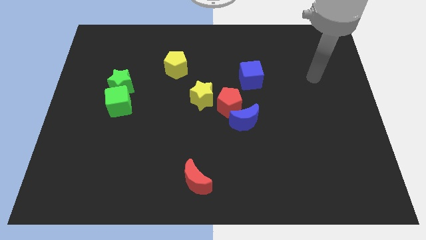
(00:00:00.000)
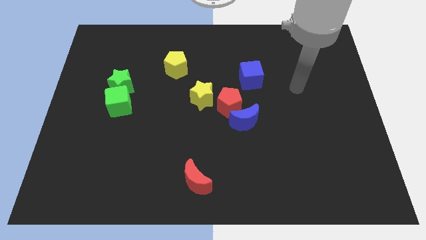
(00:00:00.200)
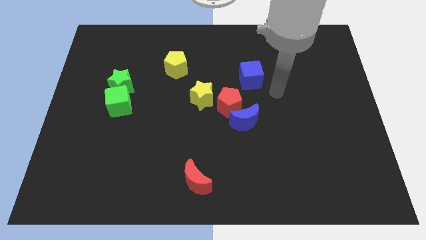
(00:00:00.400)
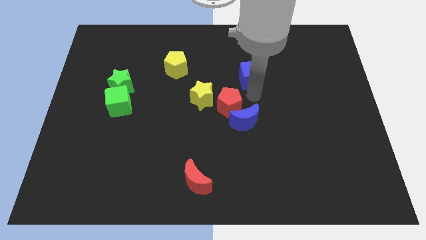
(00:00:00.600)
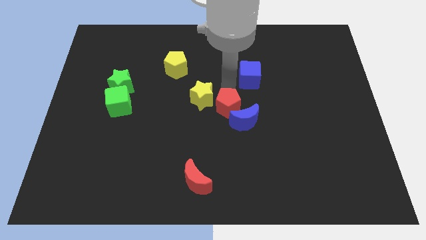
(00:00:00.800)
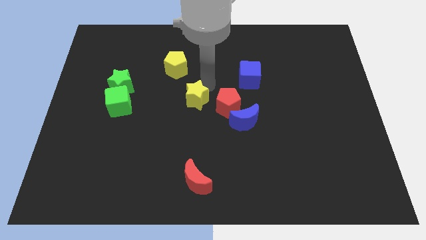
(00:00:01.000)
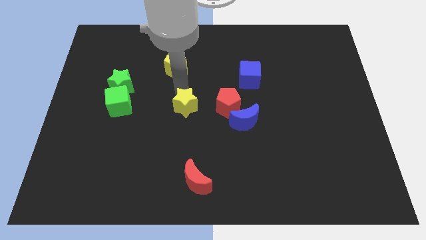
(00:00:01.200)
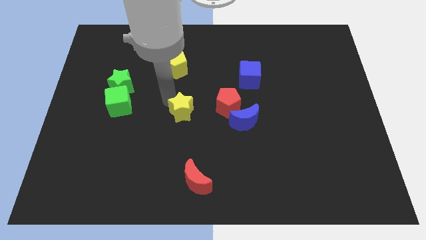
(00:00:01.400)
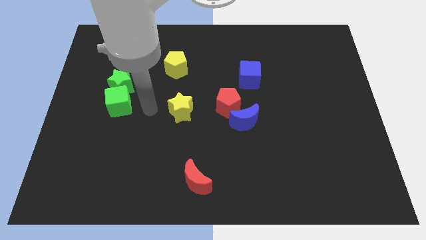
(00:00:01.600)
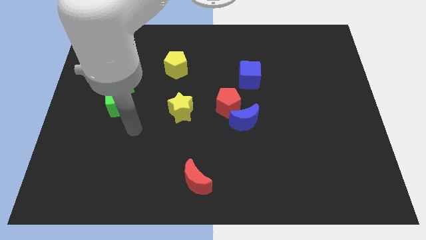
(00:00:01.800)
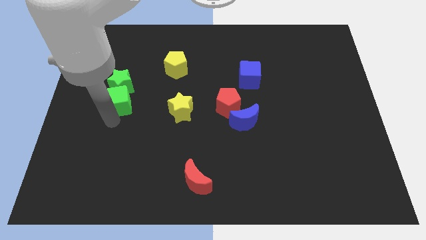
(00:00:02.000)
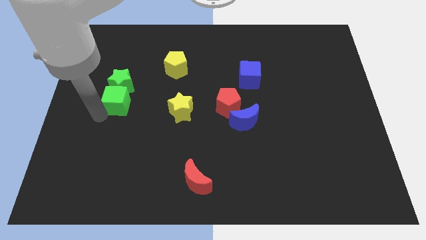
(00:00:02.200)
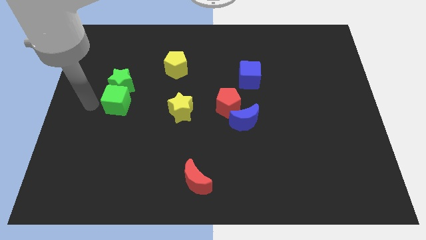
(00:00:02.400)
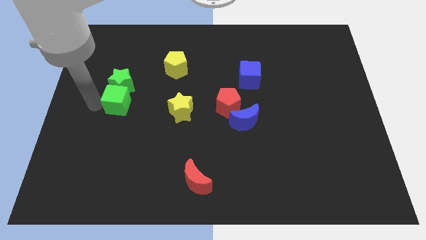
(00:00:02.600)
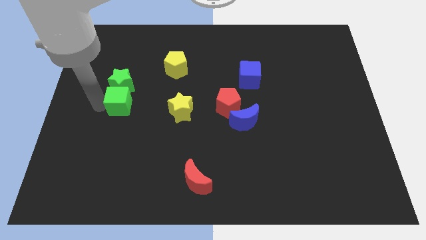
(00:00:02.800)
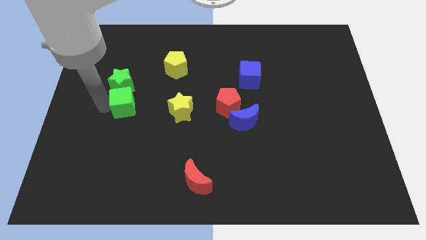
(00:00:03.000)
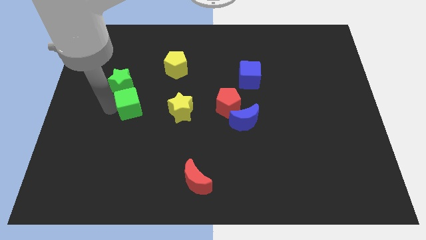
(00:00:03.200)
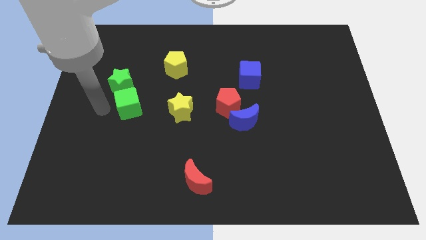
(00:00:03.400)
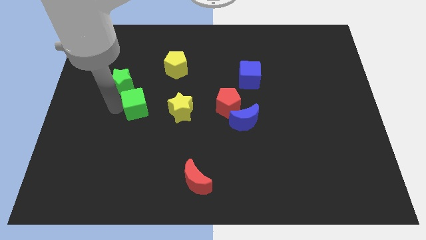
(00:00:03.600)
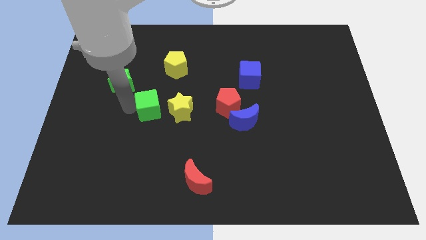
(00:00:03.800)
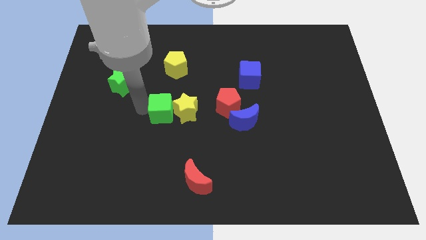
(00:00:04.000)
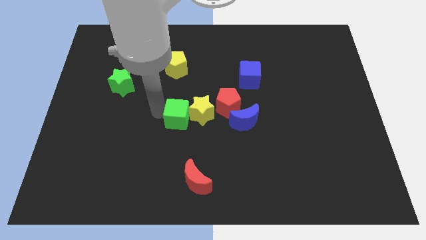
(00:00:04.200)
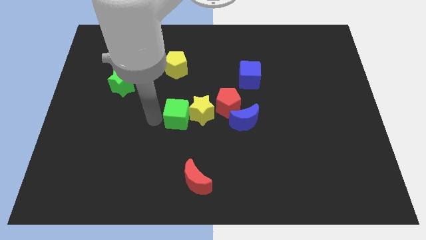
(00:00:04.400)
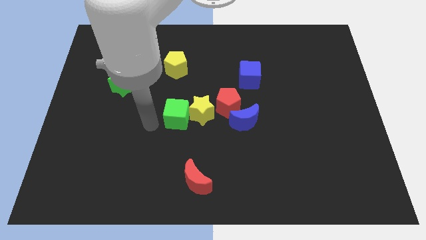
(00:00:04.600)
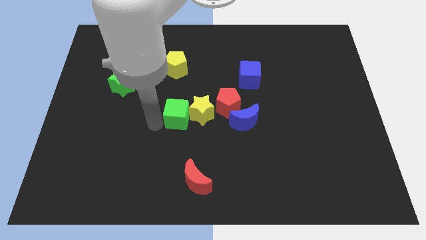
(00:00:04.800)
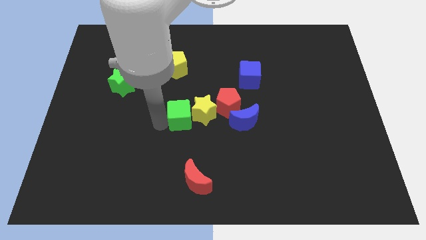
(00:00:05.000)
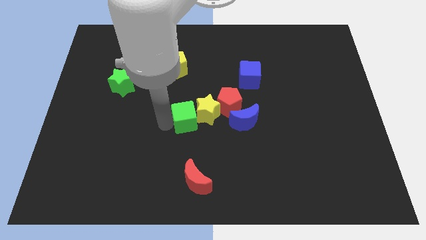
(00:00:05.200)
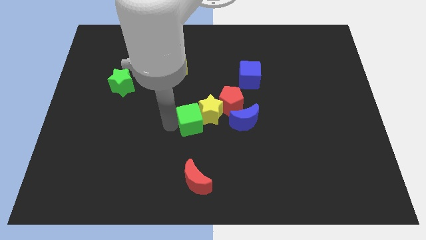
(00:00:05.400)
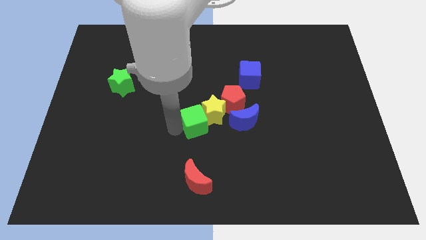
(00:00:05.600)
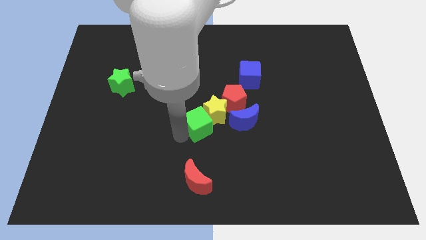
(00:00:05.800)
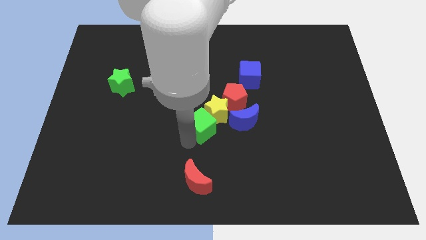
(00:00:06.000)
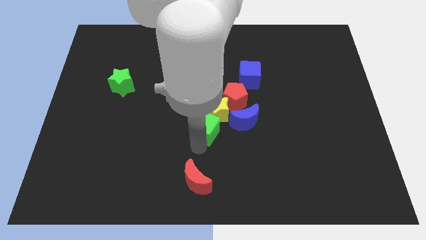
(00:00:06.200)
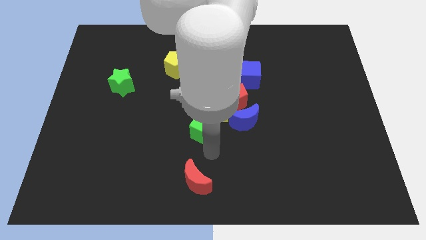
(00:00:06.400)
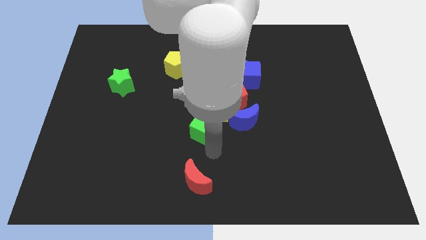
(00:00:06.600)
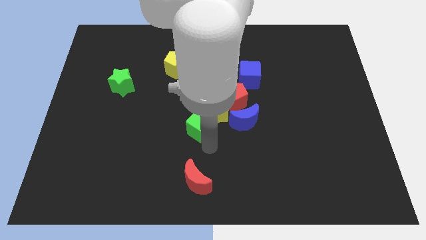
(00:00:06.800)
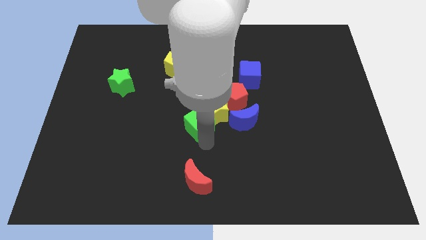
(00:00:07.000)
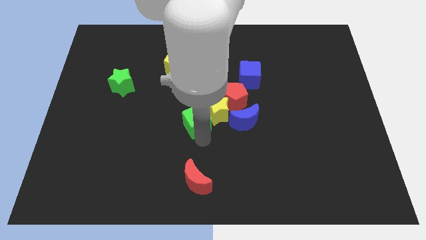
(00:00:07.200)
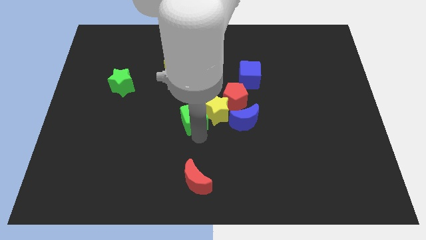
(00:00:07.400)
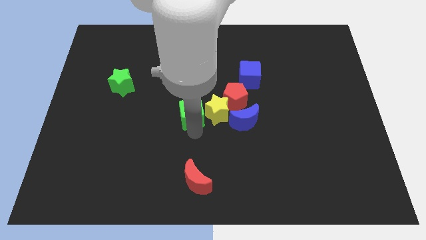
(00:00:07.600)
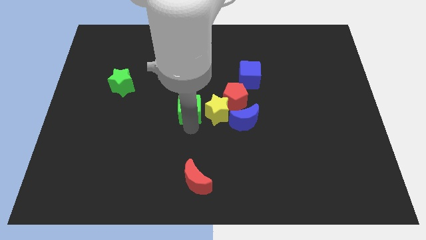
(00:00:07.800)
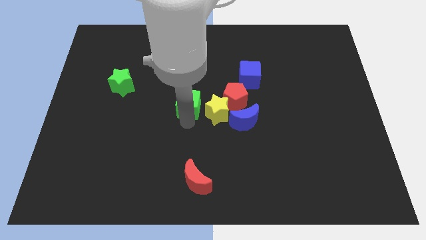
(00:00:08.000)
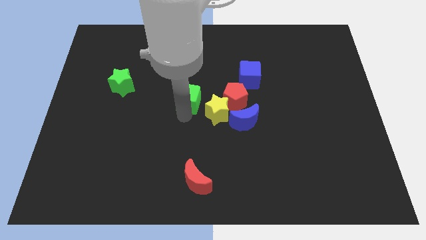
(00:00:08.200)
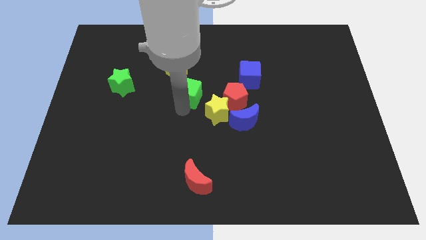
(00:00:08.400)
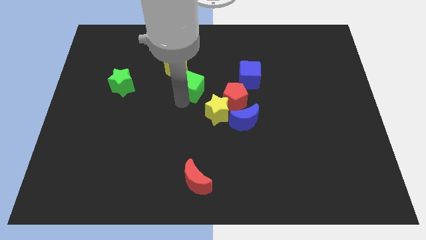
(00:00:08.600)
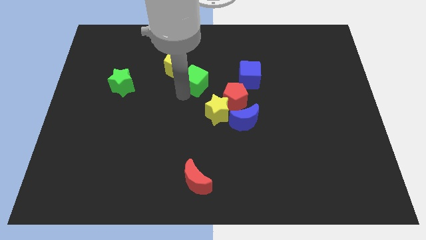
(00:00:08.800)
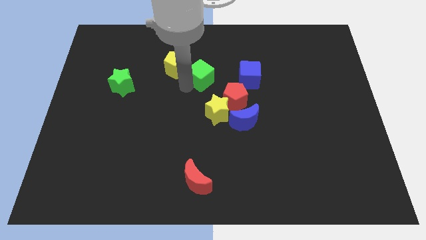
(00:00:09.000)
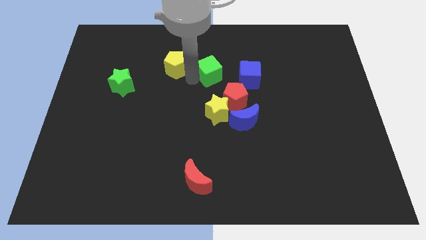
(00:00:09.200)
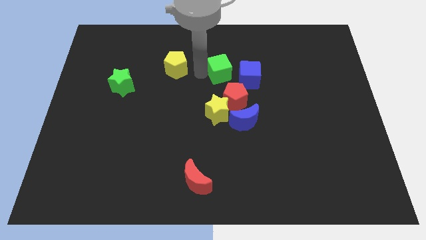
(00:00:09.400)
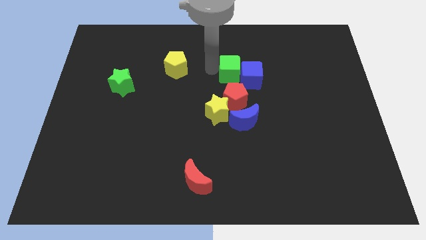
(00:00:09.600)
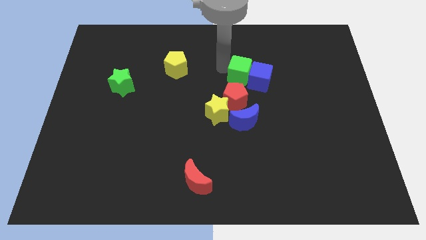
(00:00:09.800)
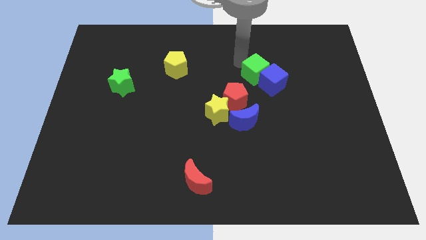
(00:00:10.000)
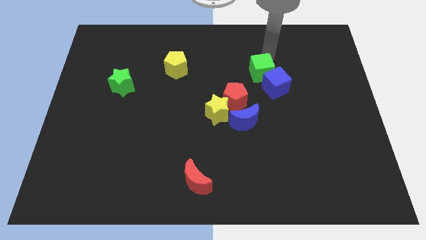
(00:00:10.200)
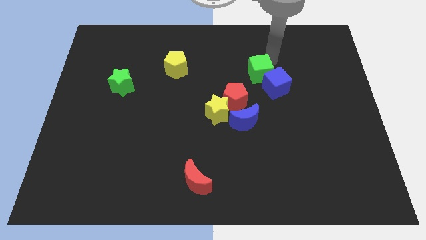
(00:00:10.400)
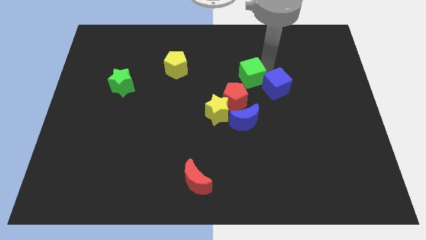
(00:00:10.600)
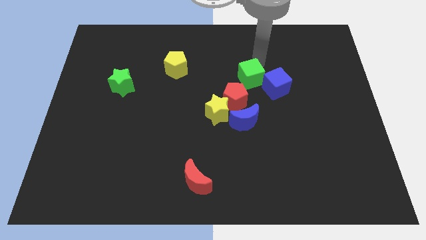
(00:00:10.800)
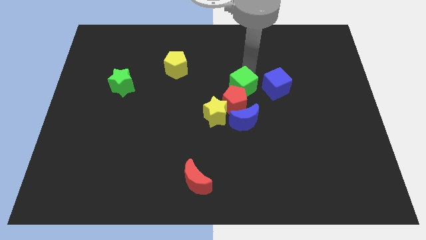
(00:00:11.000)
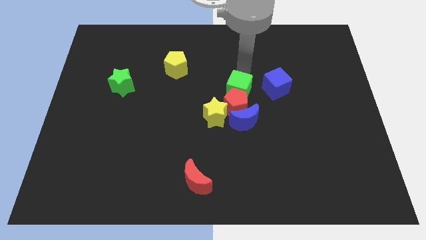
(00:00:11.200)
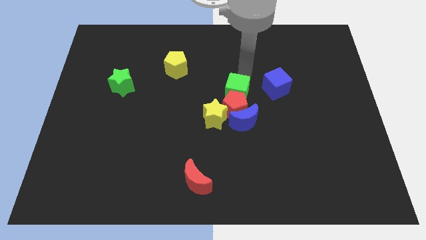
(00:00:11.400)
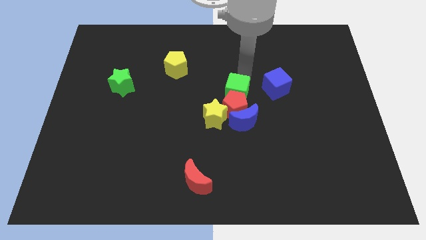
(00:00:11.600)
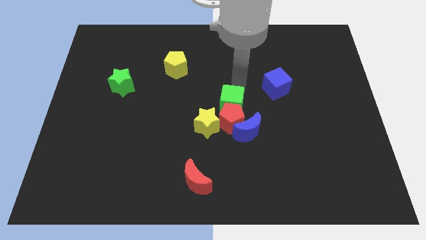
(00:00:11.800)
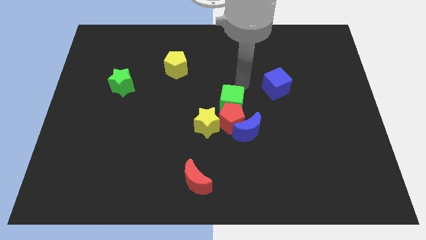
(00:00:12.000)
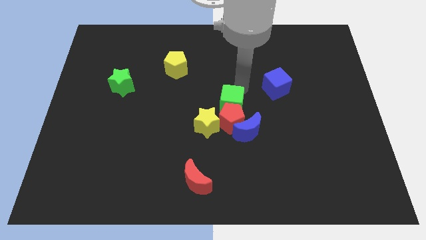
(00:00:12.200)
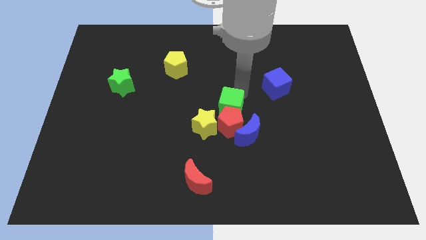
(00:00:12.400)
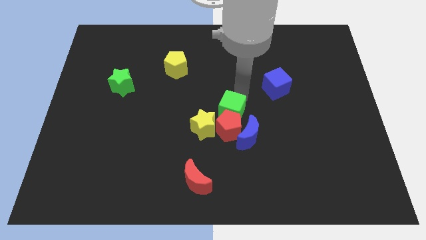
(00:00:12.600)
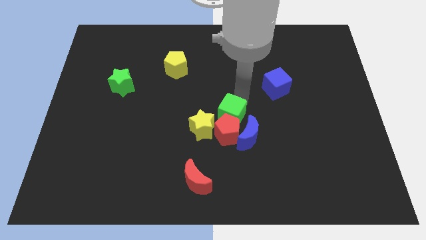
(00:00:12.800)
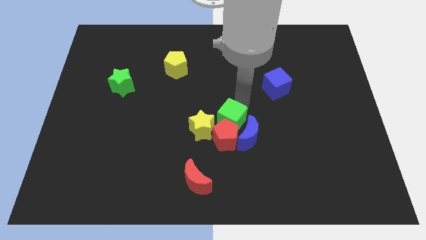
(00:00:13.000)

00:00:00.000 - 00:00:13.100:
push the green cube close to the blue moon
